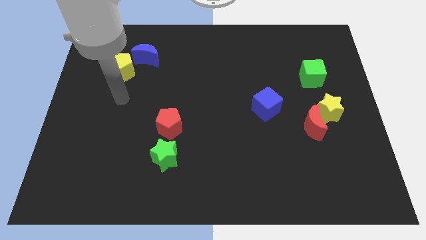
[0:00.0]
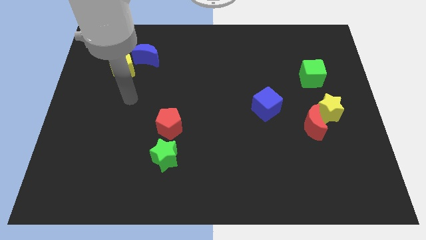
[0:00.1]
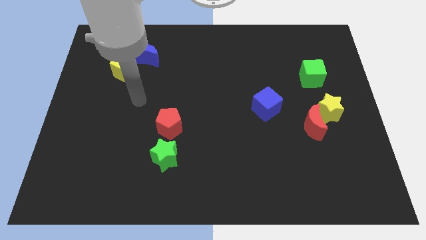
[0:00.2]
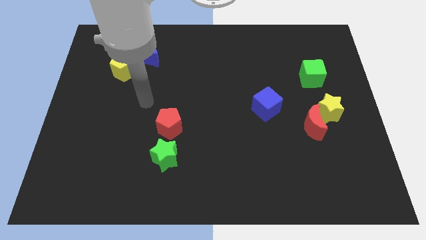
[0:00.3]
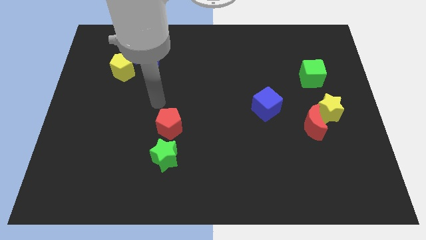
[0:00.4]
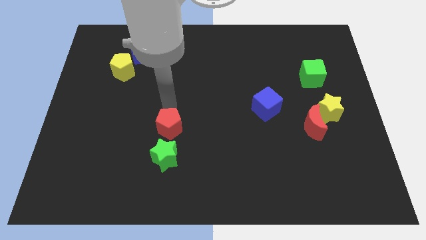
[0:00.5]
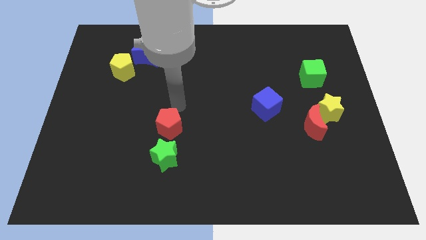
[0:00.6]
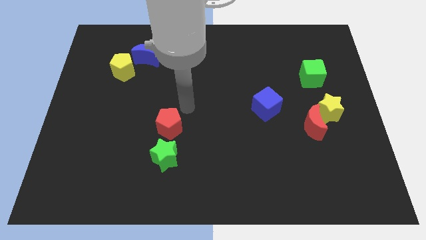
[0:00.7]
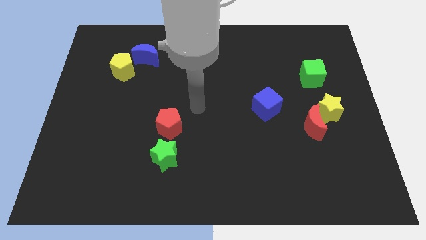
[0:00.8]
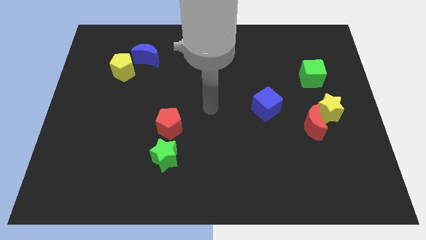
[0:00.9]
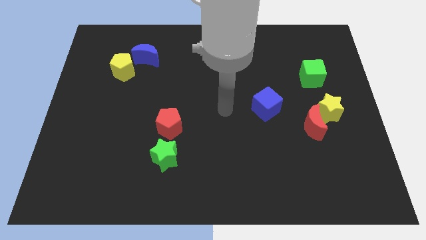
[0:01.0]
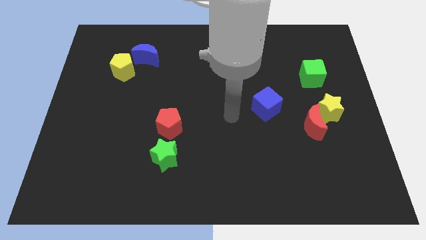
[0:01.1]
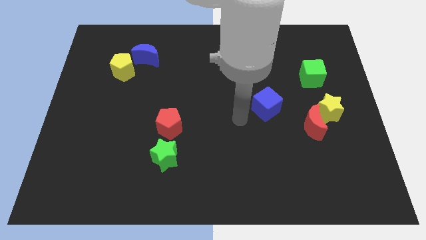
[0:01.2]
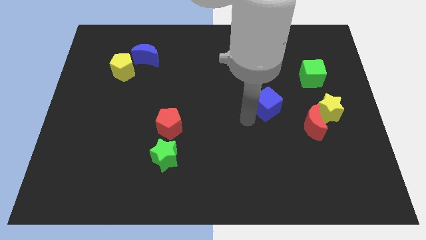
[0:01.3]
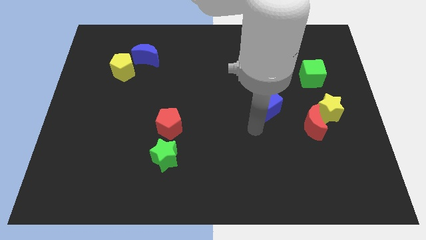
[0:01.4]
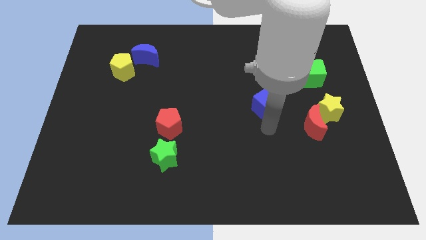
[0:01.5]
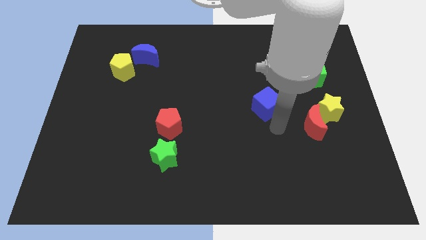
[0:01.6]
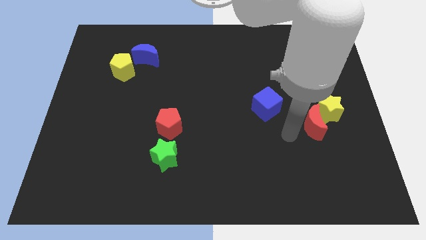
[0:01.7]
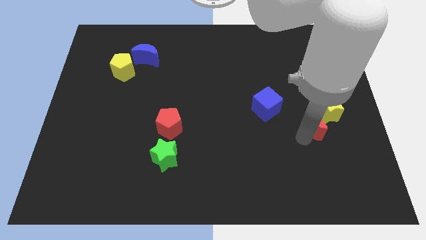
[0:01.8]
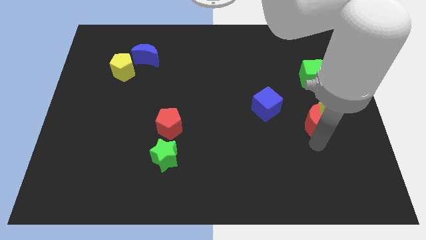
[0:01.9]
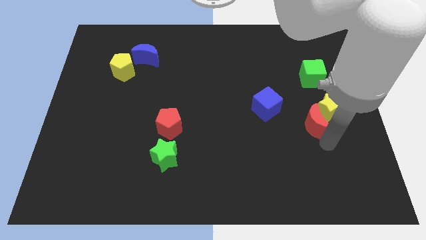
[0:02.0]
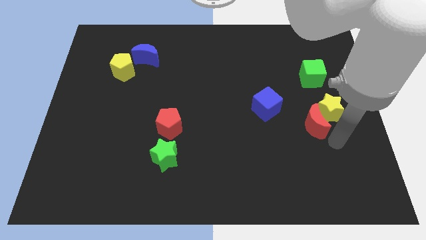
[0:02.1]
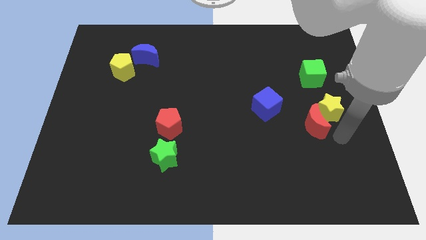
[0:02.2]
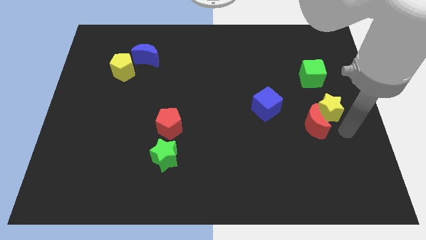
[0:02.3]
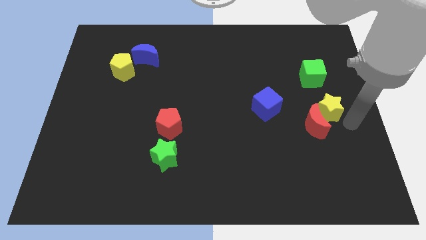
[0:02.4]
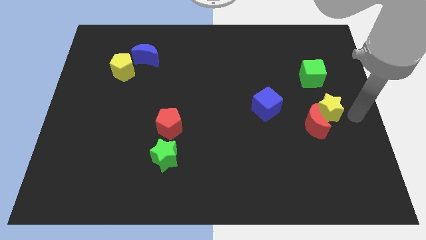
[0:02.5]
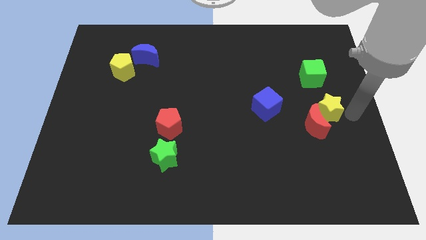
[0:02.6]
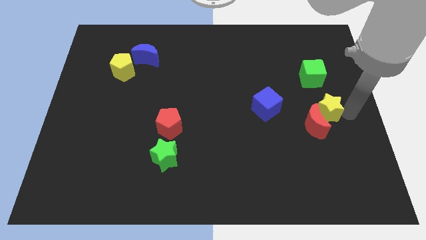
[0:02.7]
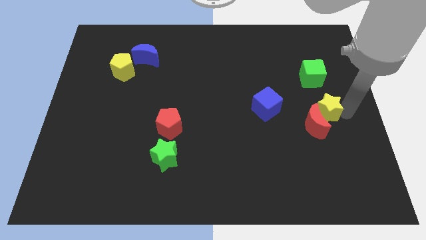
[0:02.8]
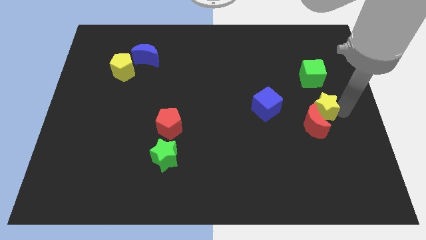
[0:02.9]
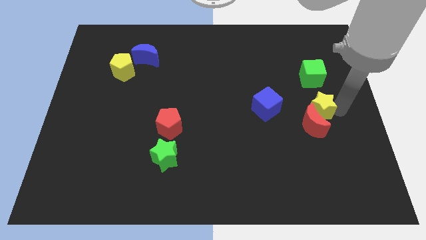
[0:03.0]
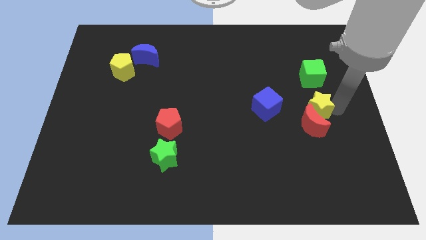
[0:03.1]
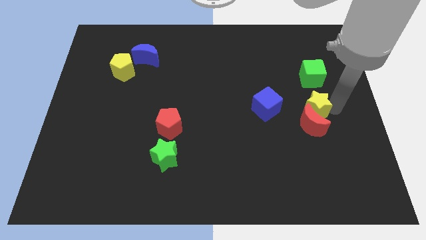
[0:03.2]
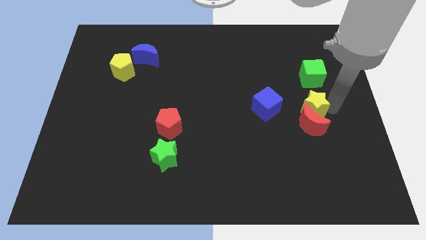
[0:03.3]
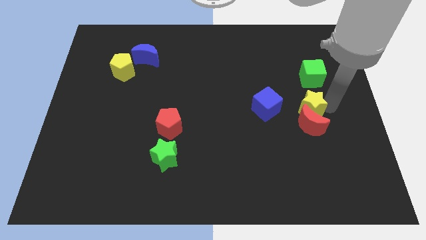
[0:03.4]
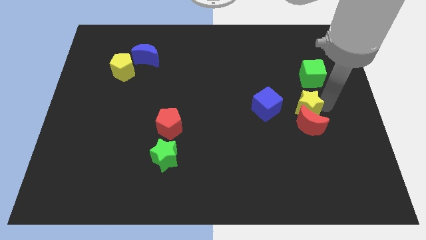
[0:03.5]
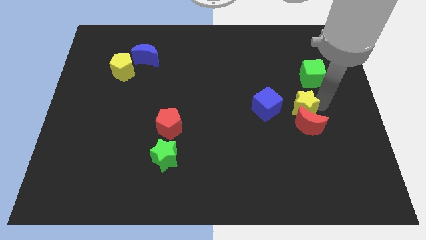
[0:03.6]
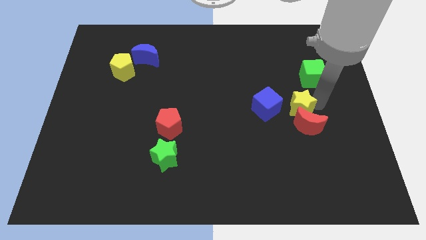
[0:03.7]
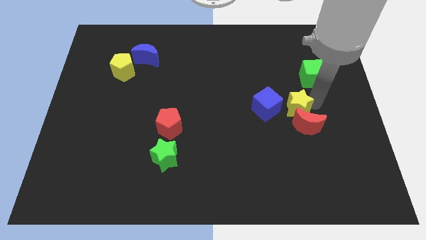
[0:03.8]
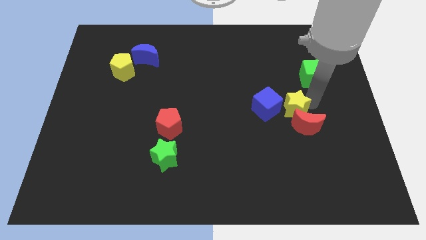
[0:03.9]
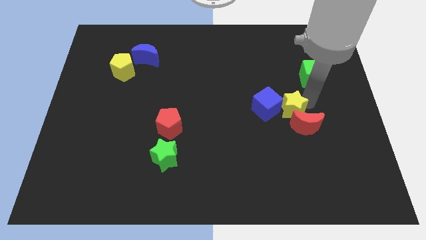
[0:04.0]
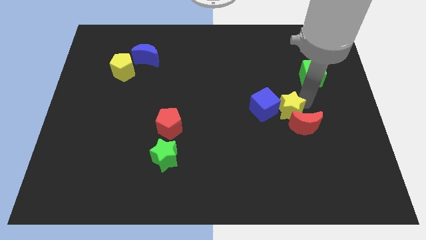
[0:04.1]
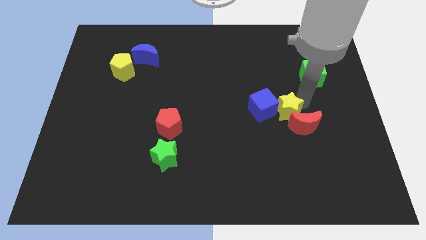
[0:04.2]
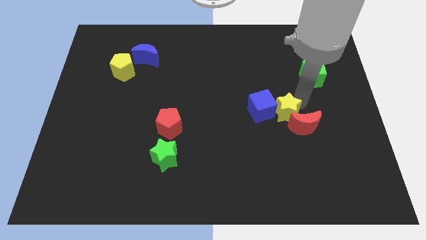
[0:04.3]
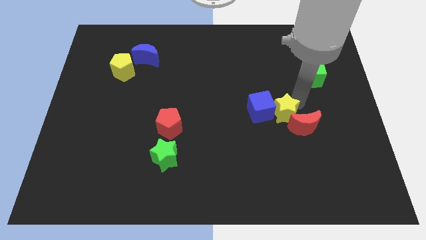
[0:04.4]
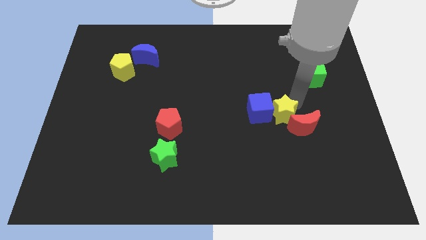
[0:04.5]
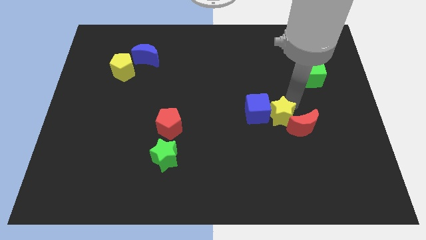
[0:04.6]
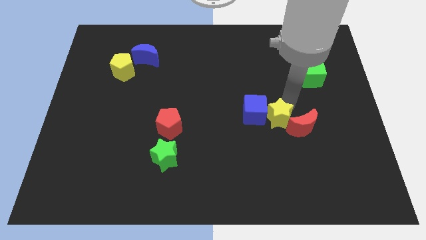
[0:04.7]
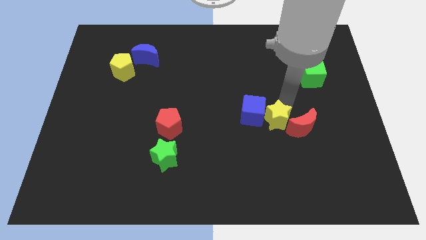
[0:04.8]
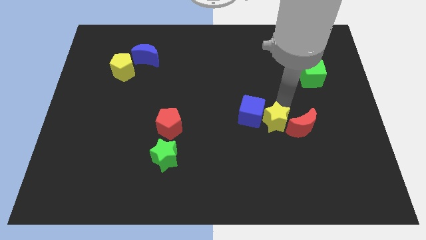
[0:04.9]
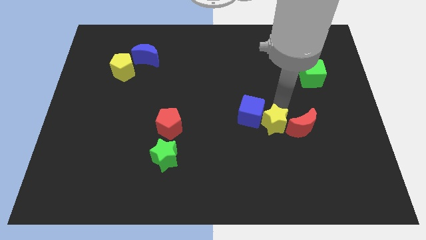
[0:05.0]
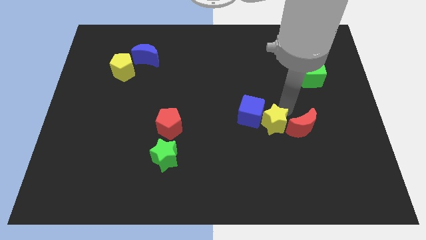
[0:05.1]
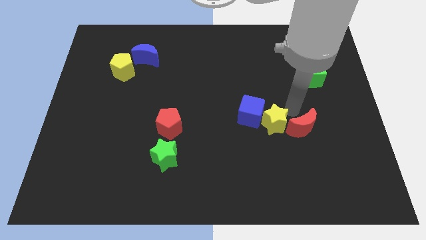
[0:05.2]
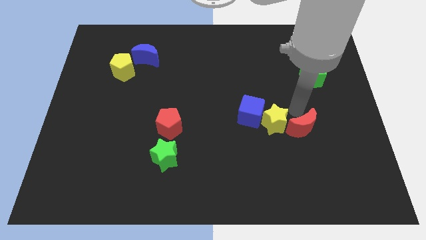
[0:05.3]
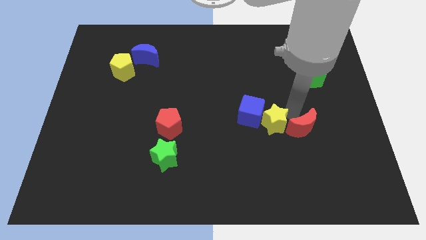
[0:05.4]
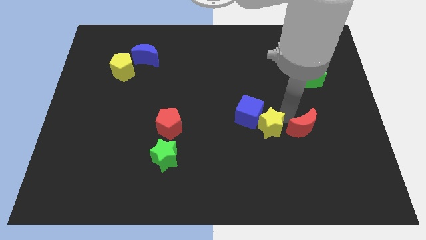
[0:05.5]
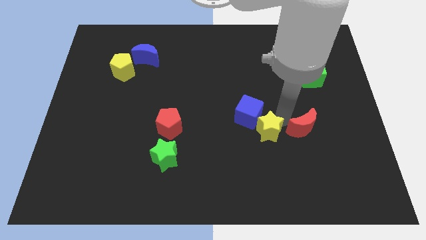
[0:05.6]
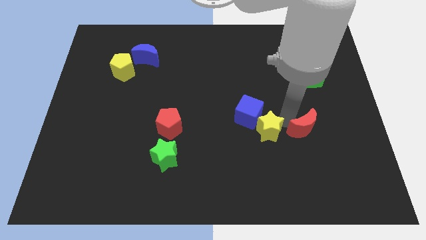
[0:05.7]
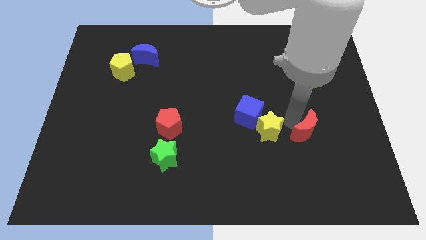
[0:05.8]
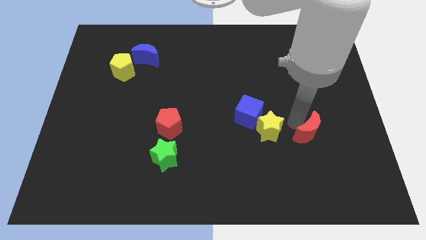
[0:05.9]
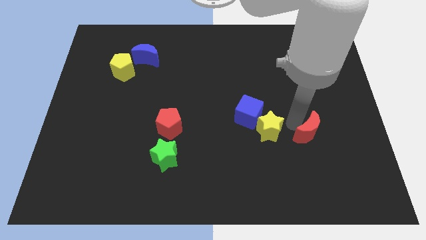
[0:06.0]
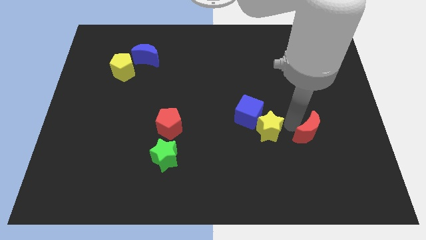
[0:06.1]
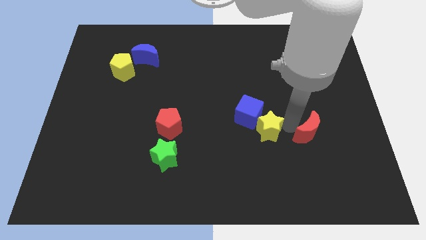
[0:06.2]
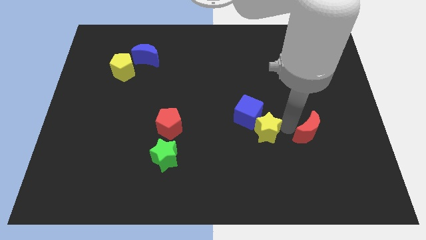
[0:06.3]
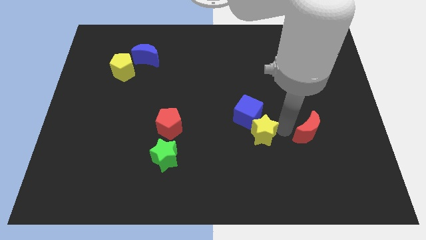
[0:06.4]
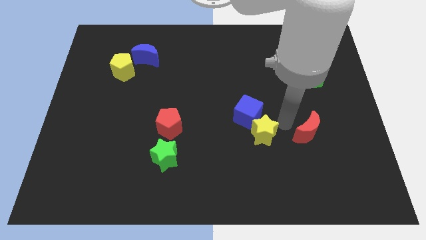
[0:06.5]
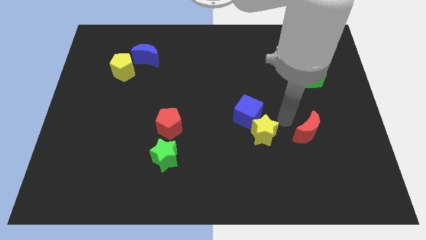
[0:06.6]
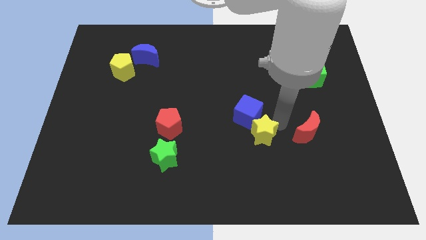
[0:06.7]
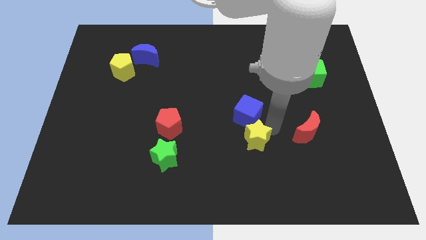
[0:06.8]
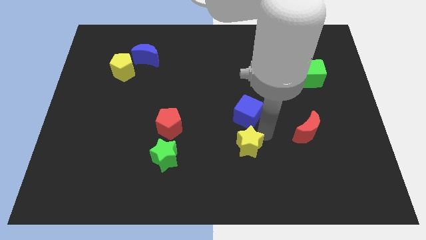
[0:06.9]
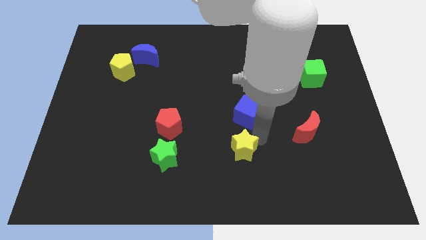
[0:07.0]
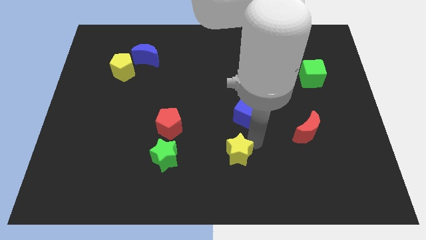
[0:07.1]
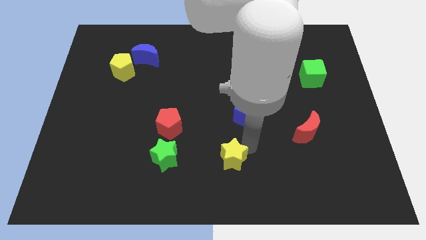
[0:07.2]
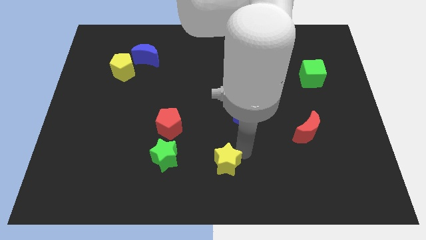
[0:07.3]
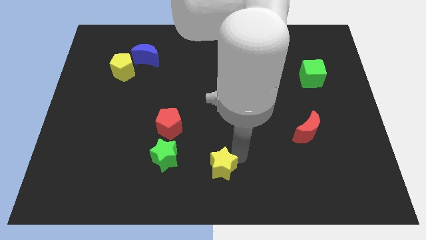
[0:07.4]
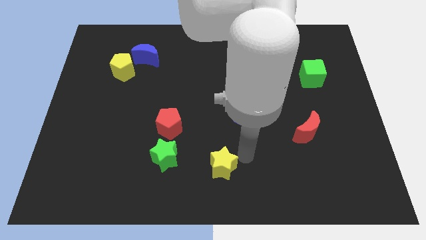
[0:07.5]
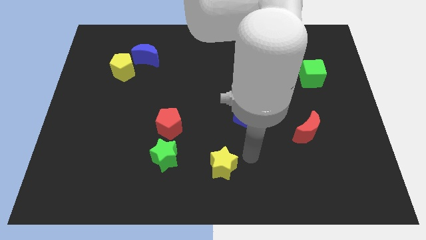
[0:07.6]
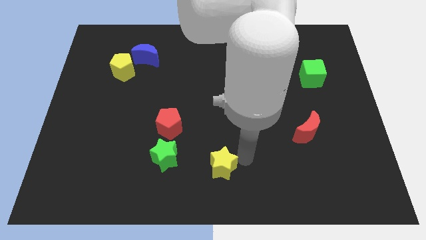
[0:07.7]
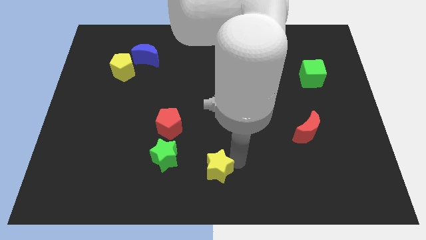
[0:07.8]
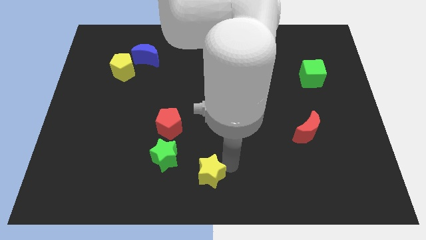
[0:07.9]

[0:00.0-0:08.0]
slide the yellow star to the bottom right side of the green star
